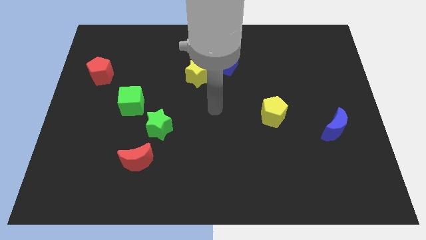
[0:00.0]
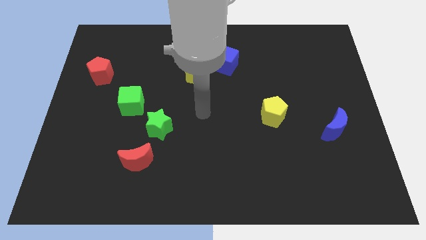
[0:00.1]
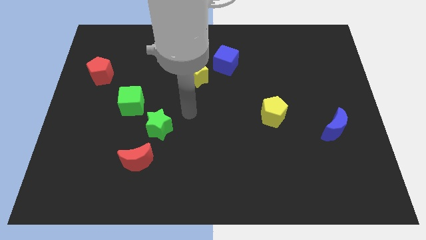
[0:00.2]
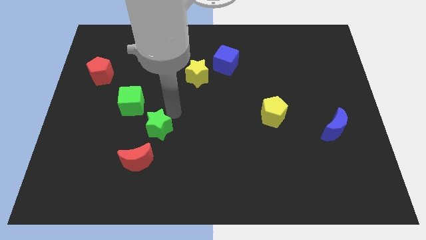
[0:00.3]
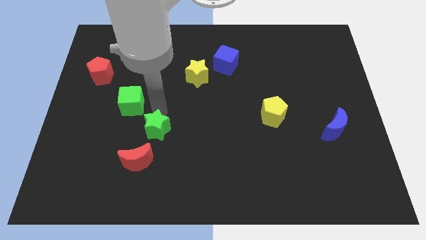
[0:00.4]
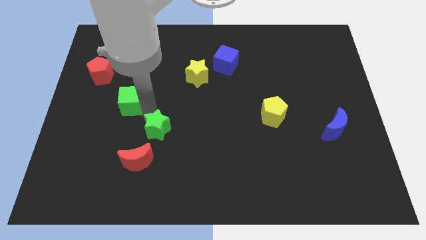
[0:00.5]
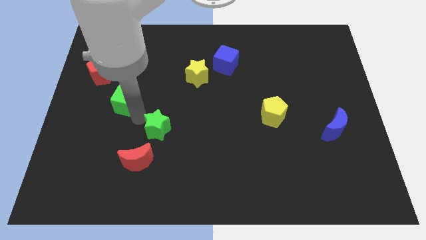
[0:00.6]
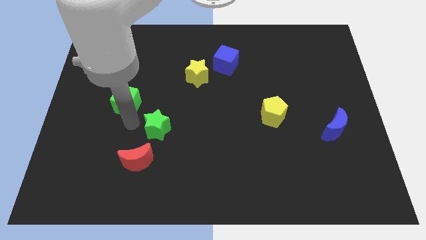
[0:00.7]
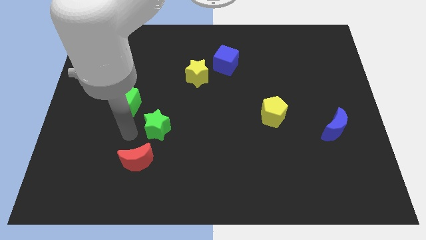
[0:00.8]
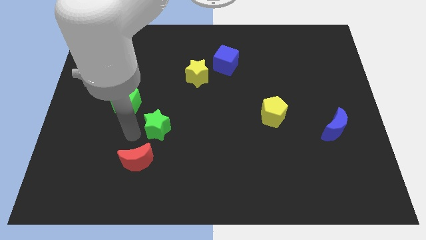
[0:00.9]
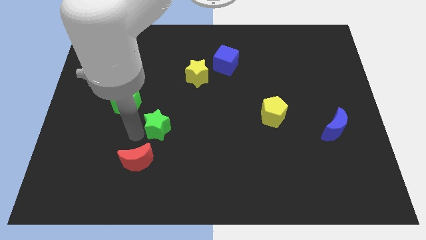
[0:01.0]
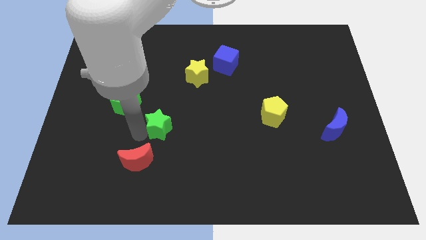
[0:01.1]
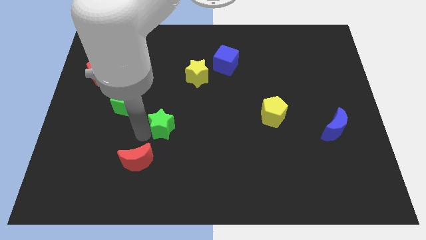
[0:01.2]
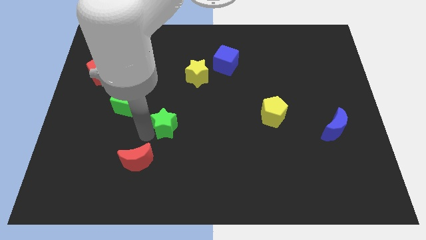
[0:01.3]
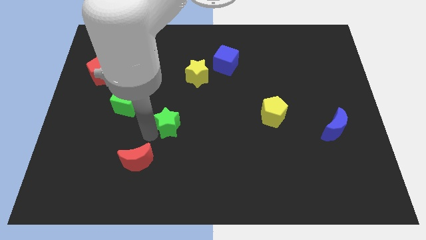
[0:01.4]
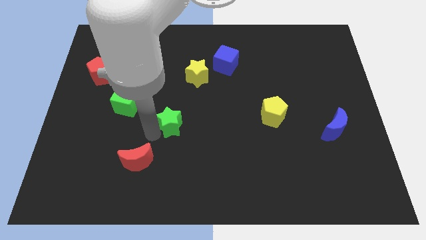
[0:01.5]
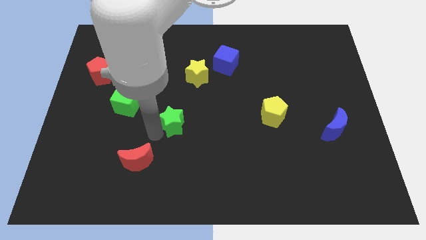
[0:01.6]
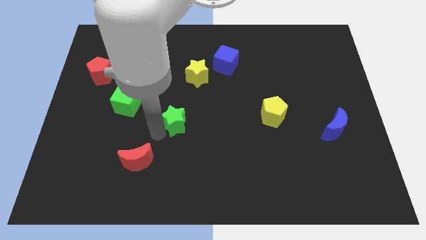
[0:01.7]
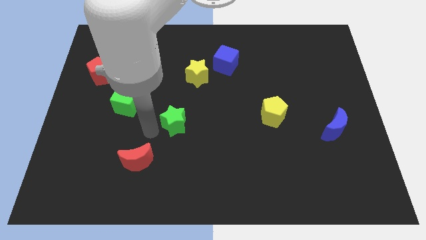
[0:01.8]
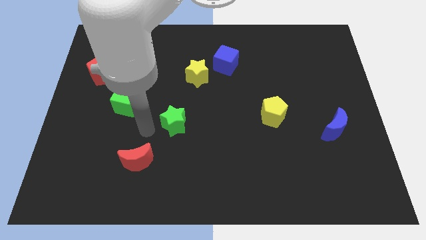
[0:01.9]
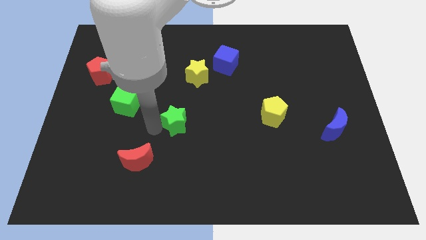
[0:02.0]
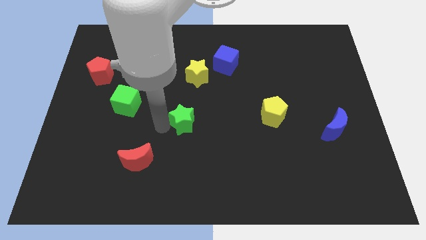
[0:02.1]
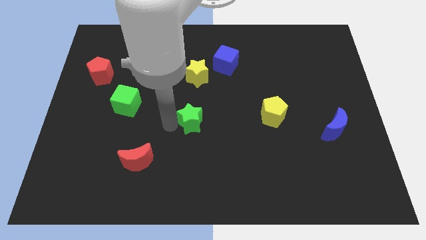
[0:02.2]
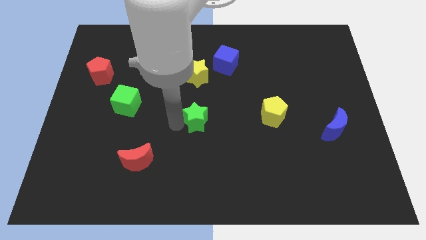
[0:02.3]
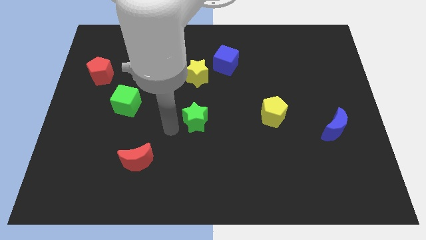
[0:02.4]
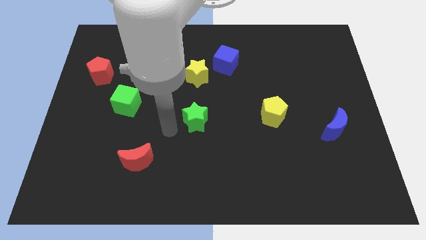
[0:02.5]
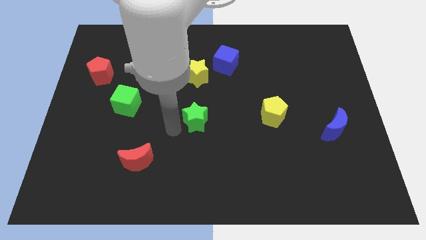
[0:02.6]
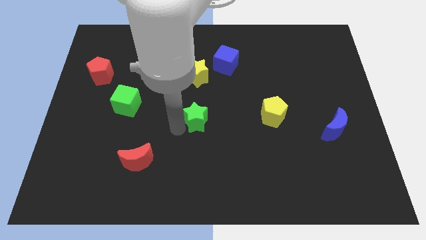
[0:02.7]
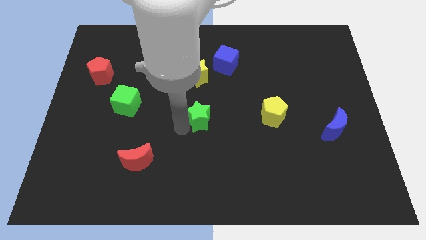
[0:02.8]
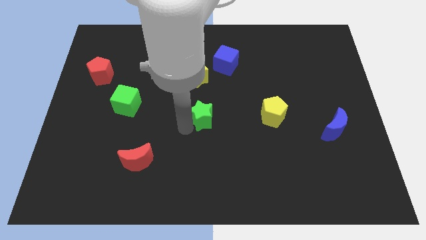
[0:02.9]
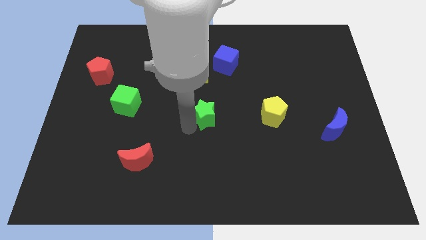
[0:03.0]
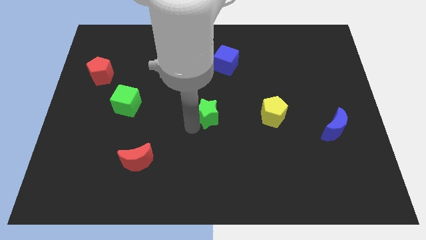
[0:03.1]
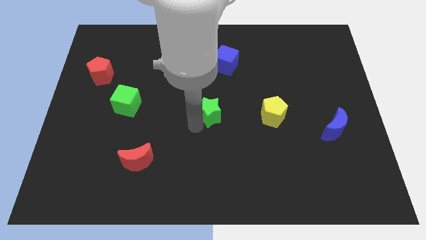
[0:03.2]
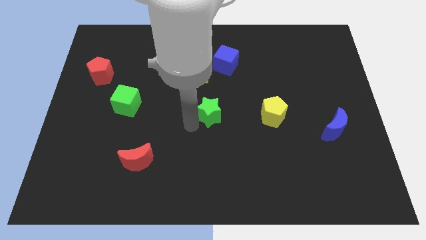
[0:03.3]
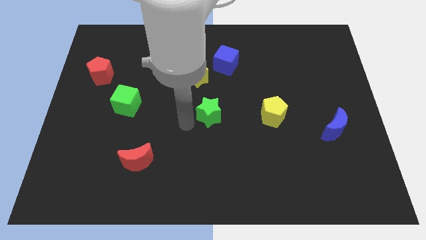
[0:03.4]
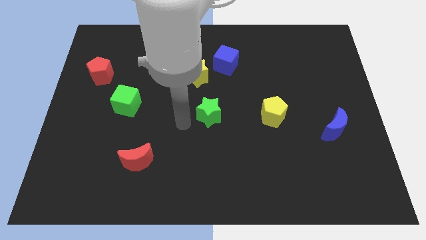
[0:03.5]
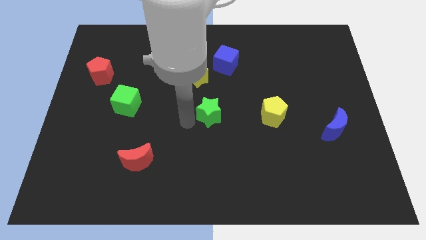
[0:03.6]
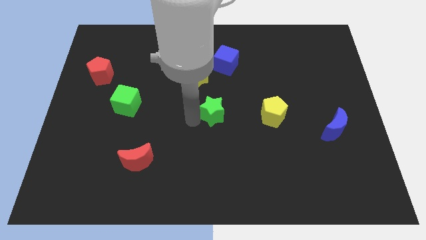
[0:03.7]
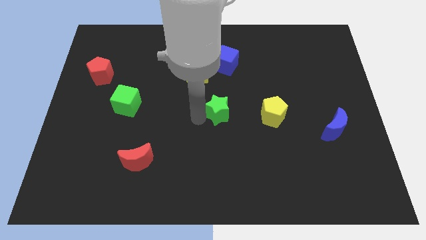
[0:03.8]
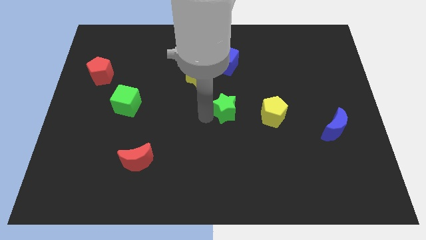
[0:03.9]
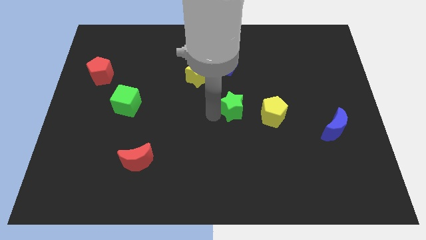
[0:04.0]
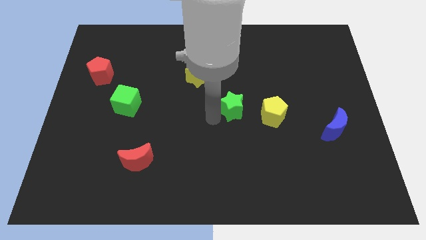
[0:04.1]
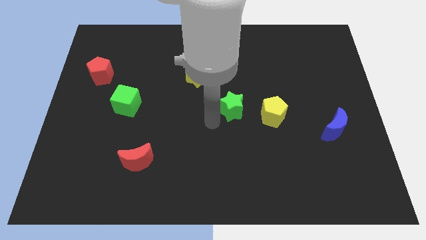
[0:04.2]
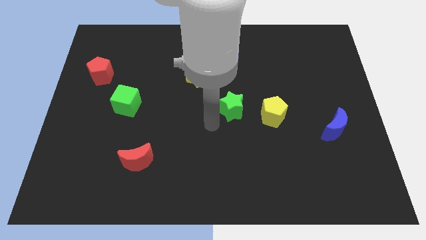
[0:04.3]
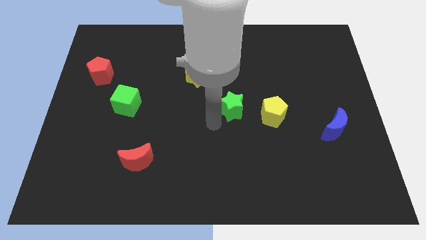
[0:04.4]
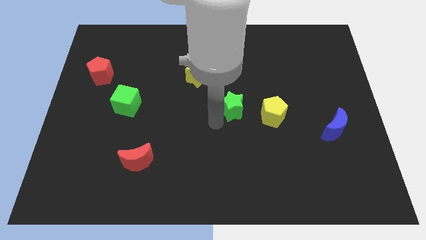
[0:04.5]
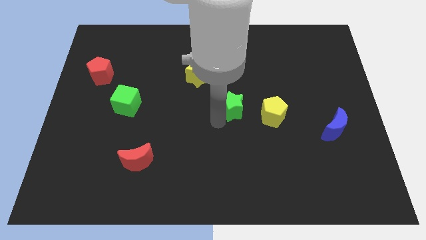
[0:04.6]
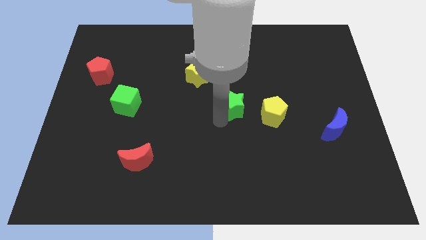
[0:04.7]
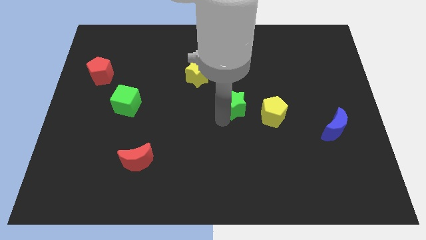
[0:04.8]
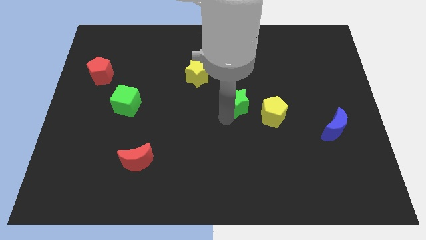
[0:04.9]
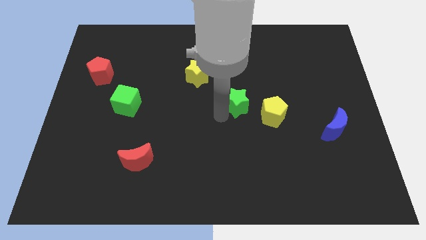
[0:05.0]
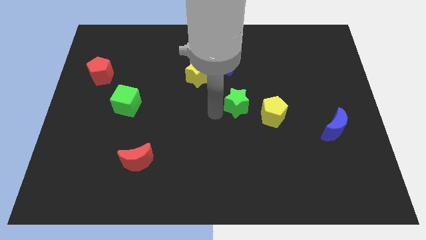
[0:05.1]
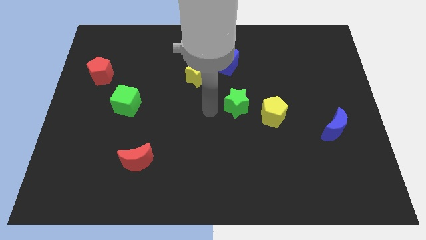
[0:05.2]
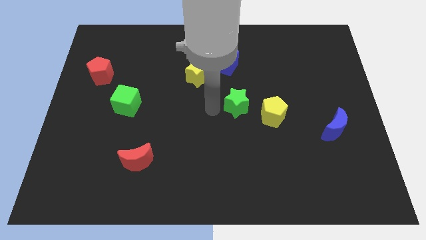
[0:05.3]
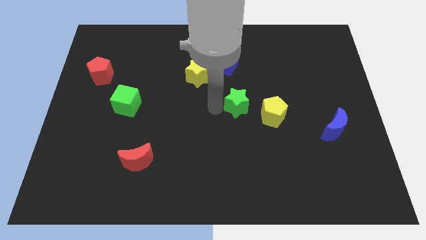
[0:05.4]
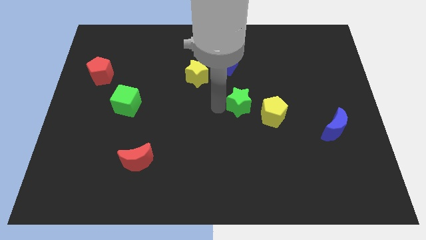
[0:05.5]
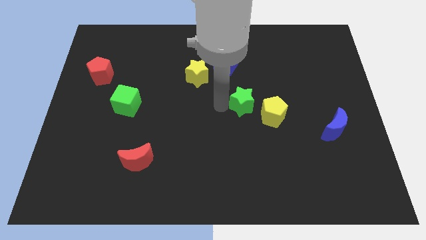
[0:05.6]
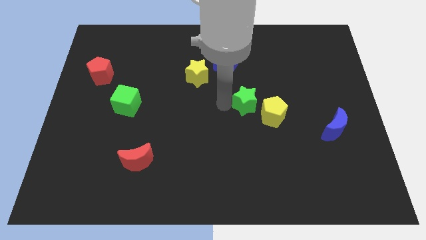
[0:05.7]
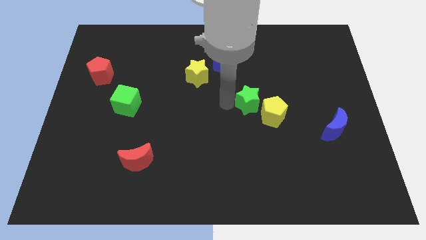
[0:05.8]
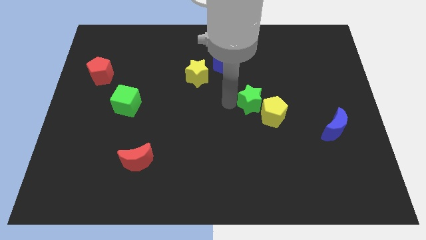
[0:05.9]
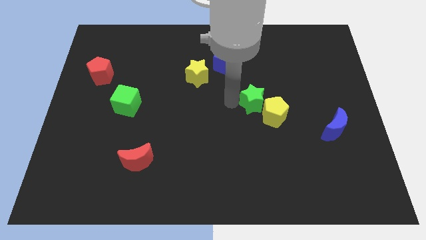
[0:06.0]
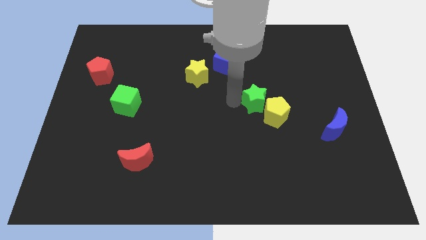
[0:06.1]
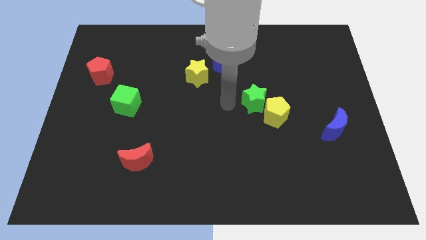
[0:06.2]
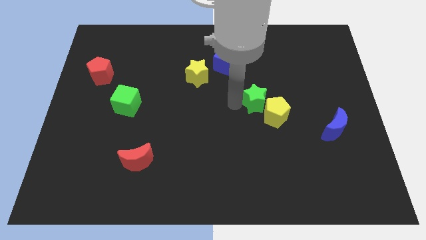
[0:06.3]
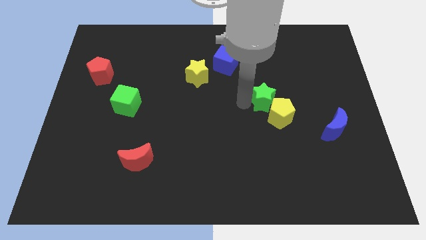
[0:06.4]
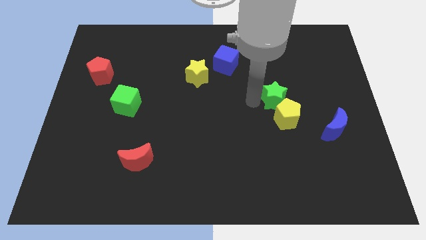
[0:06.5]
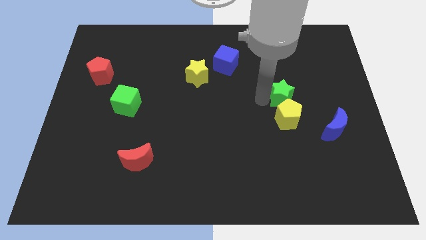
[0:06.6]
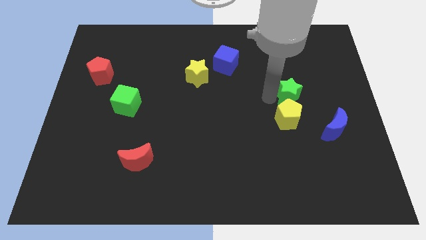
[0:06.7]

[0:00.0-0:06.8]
push the green star diagonally up and to the right of the yellow pentagon
